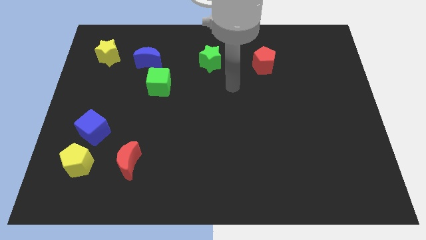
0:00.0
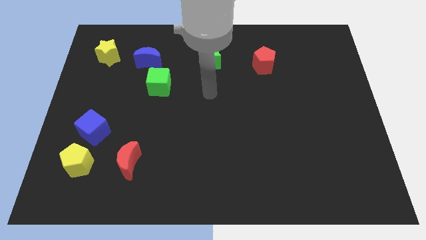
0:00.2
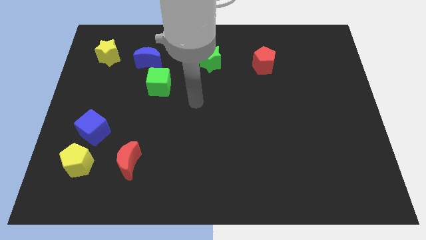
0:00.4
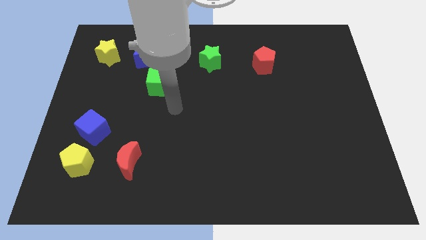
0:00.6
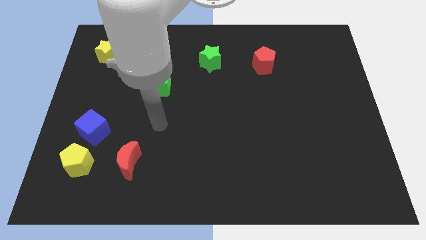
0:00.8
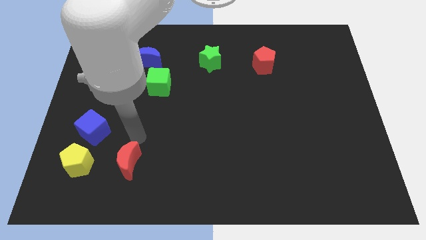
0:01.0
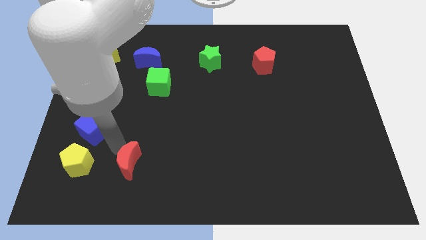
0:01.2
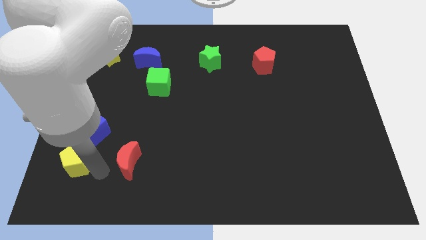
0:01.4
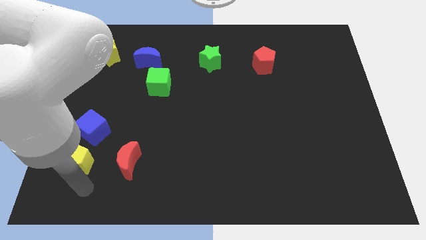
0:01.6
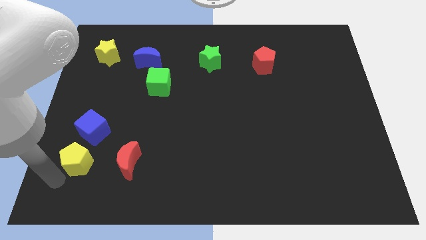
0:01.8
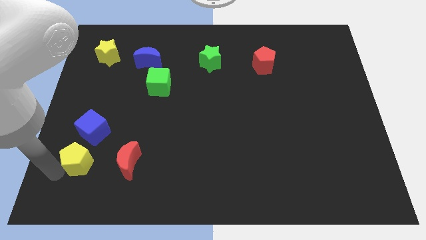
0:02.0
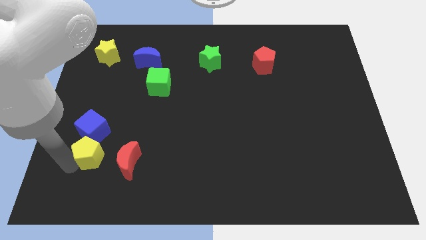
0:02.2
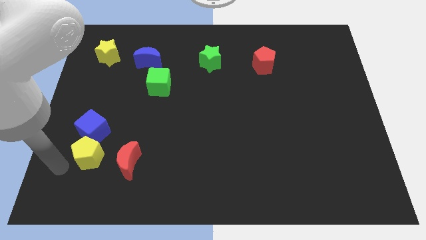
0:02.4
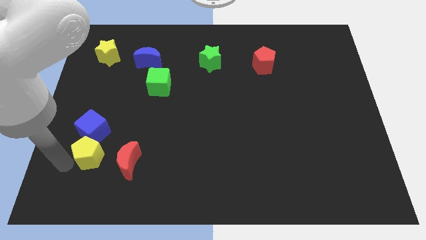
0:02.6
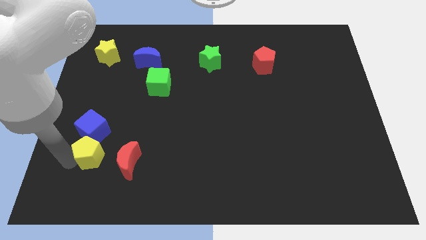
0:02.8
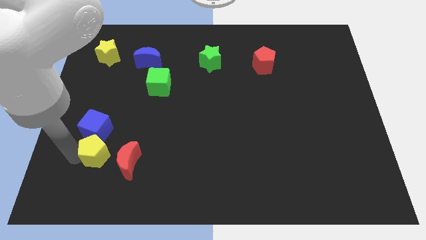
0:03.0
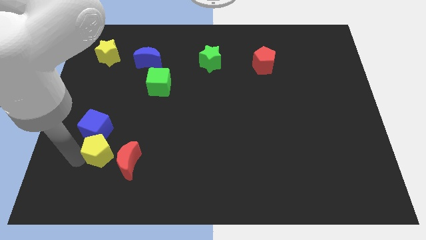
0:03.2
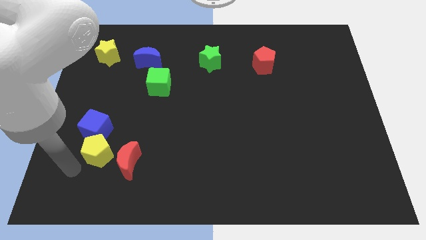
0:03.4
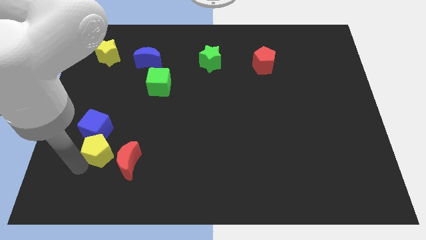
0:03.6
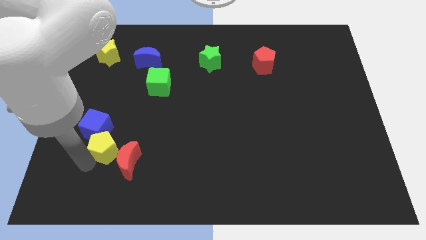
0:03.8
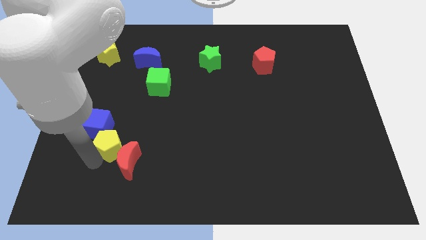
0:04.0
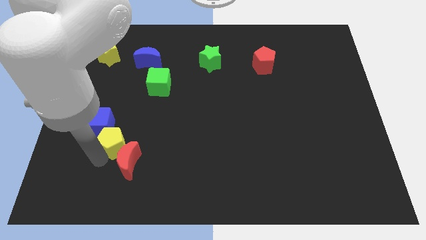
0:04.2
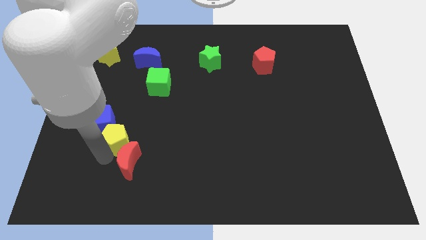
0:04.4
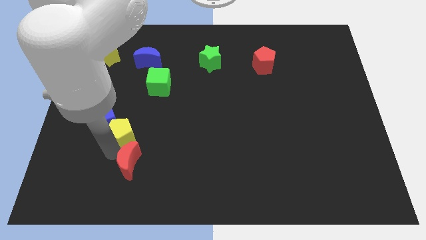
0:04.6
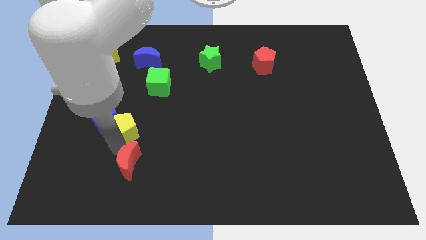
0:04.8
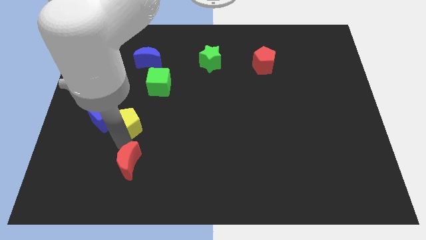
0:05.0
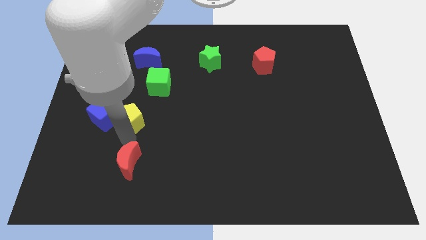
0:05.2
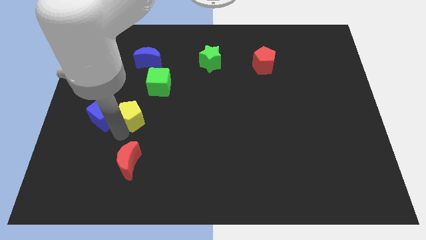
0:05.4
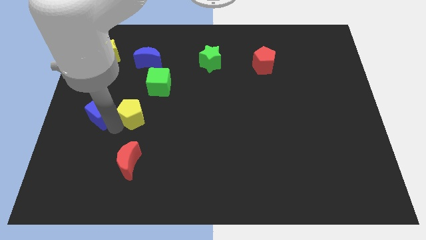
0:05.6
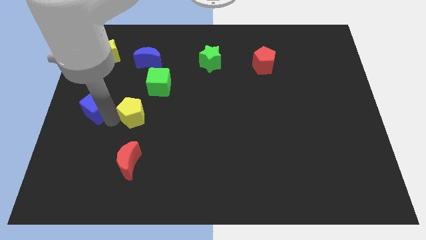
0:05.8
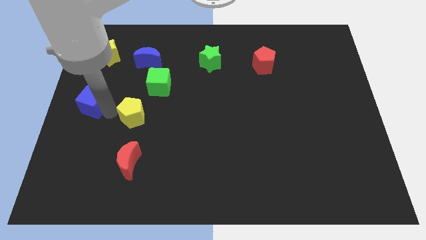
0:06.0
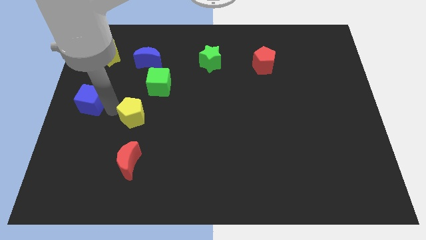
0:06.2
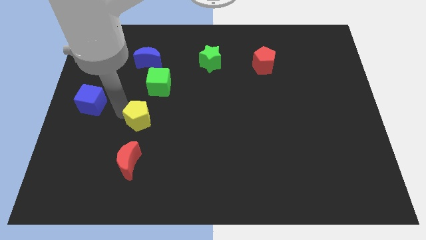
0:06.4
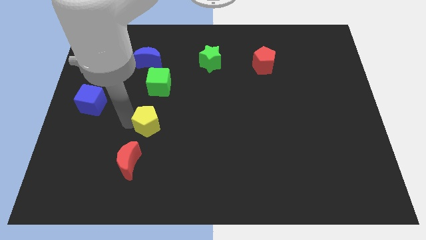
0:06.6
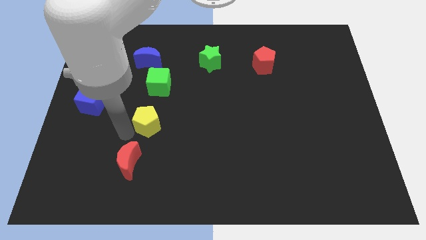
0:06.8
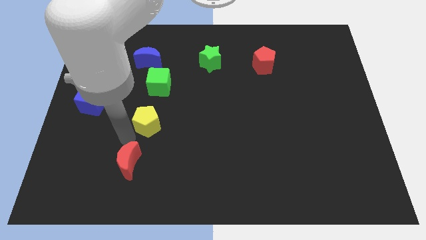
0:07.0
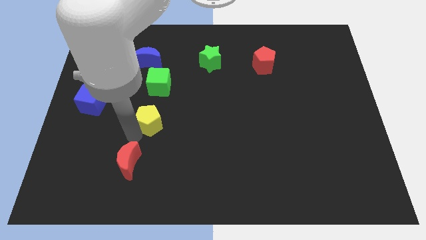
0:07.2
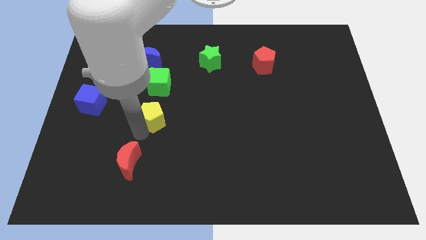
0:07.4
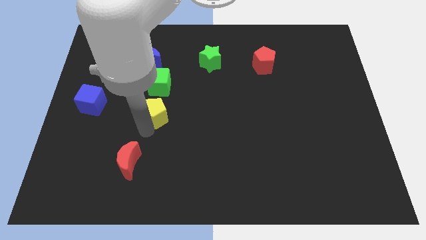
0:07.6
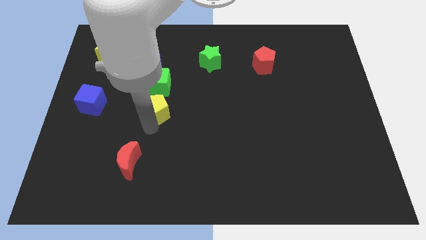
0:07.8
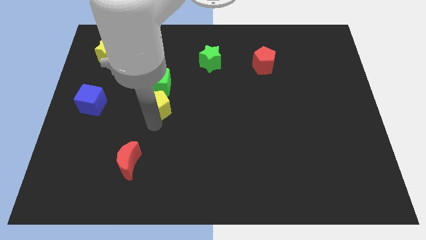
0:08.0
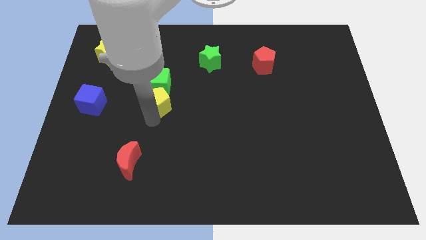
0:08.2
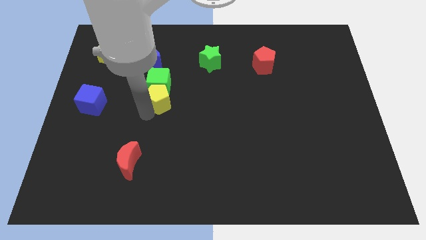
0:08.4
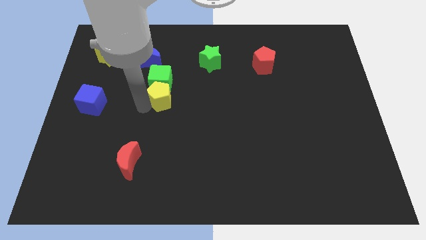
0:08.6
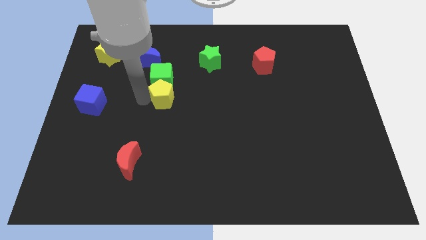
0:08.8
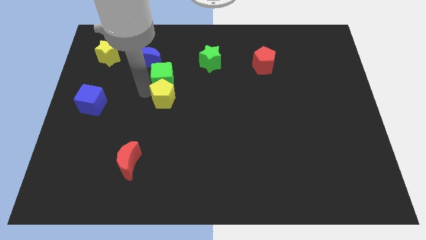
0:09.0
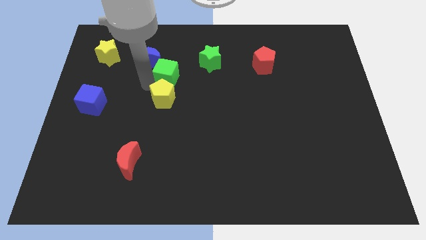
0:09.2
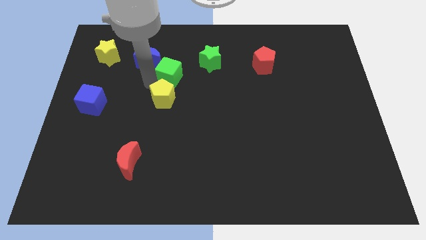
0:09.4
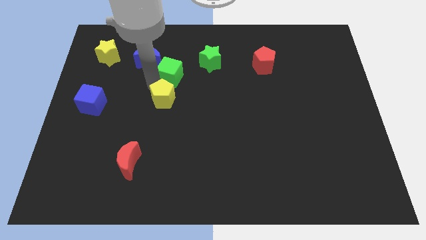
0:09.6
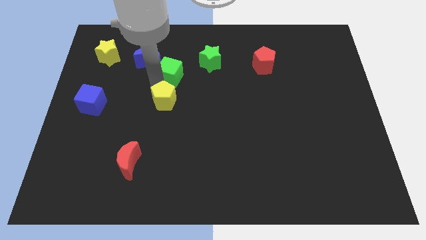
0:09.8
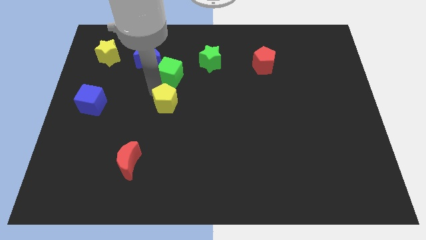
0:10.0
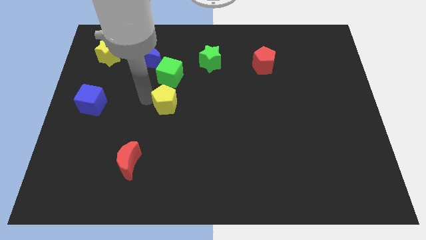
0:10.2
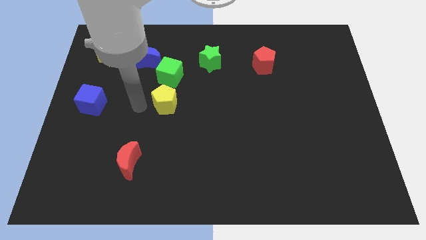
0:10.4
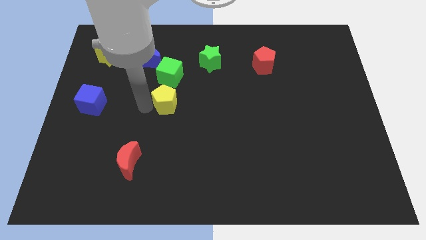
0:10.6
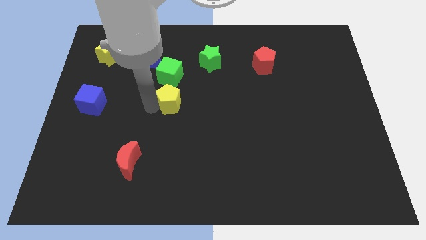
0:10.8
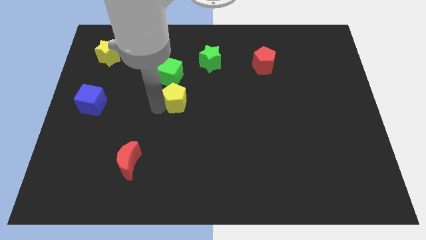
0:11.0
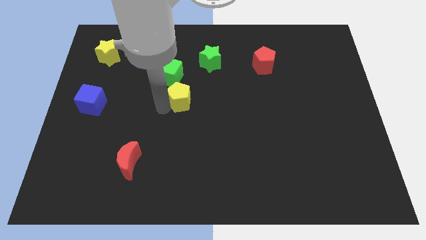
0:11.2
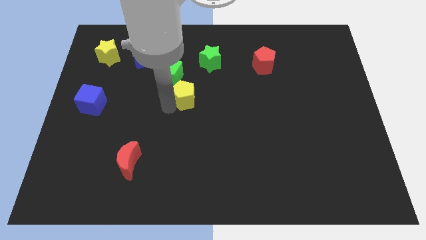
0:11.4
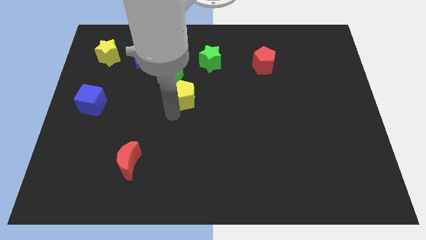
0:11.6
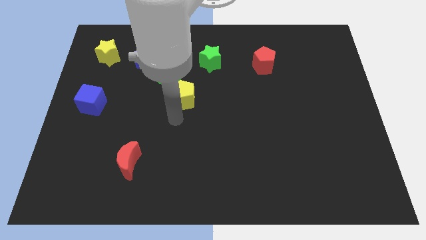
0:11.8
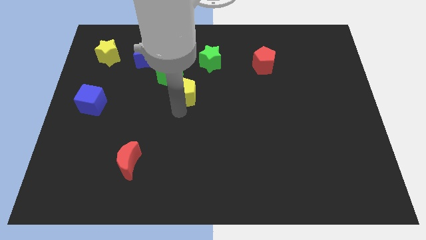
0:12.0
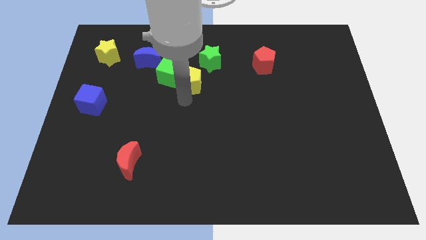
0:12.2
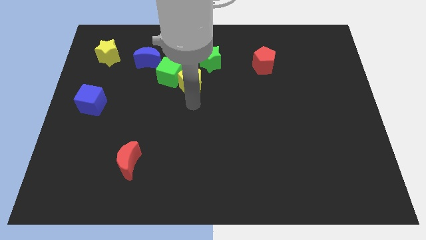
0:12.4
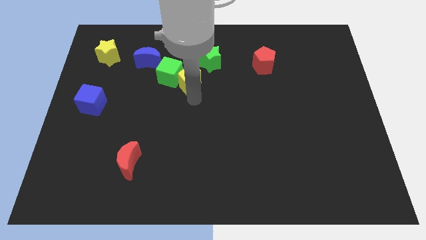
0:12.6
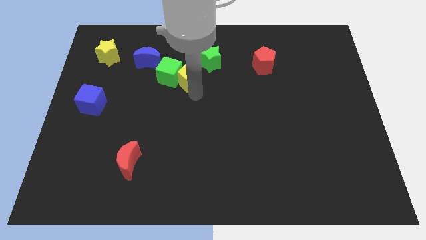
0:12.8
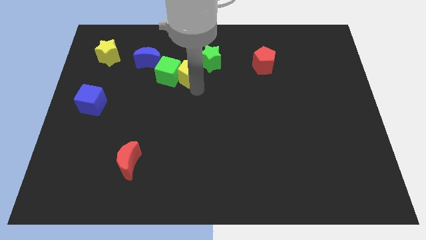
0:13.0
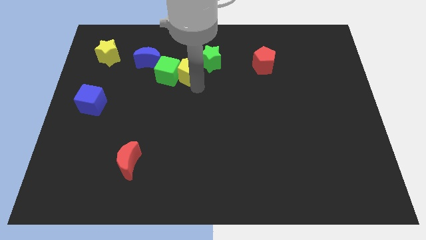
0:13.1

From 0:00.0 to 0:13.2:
push the yellow pentagon to the right side of the blue moon

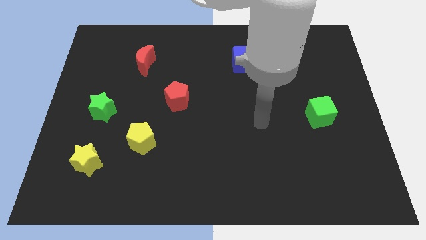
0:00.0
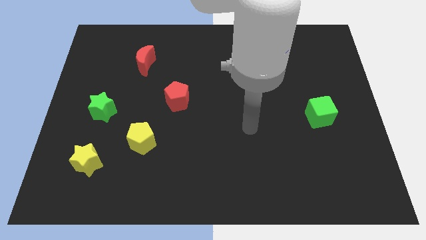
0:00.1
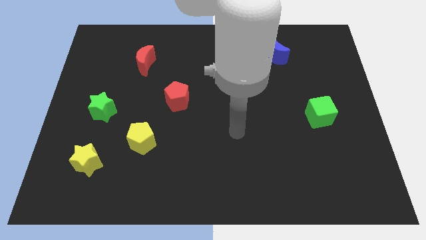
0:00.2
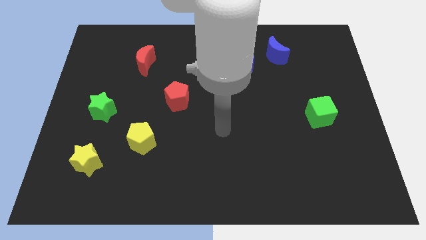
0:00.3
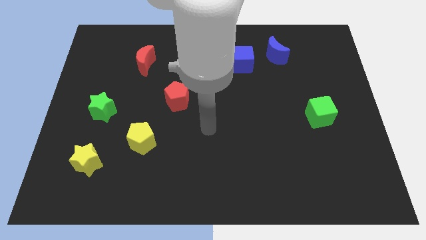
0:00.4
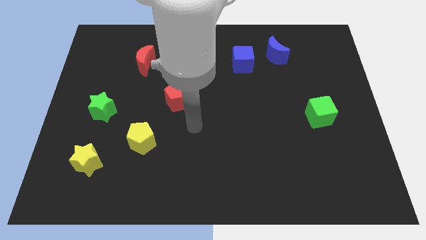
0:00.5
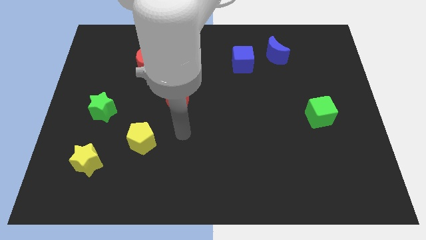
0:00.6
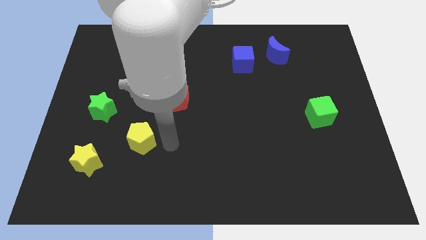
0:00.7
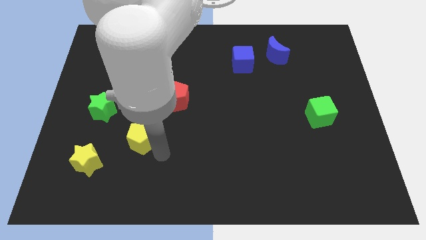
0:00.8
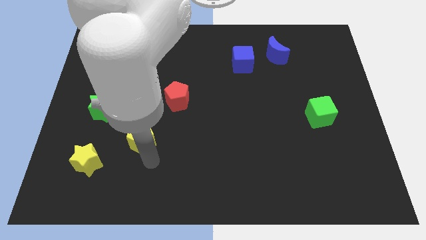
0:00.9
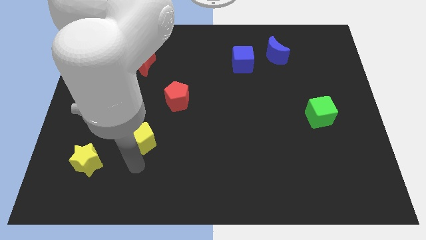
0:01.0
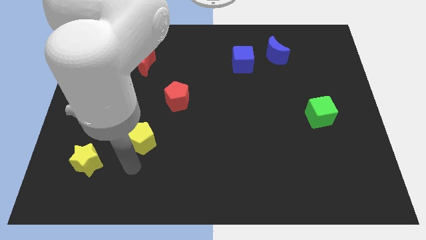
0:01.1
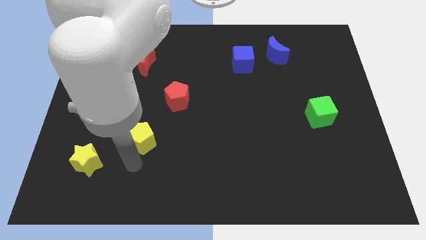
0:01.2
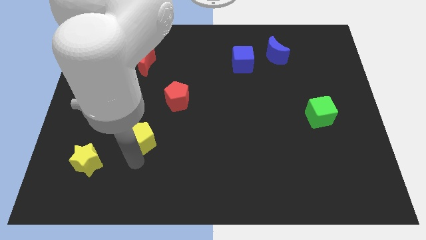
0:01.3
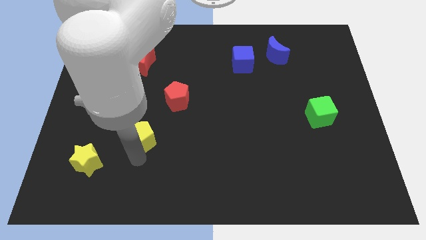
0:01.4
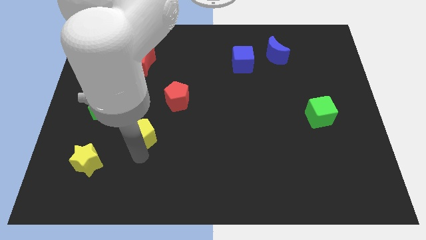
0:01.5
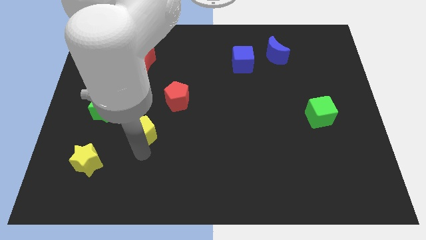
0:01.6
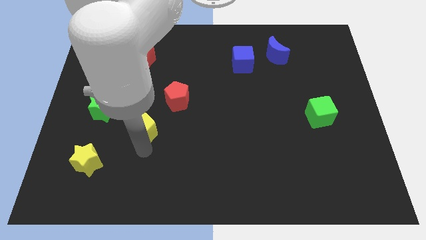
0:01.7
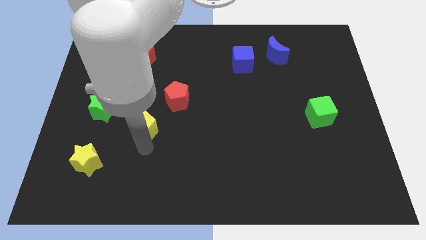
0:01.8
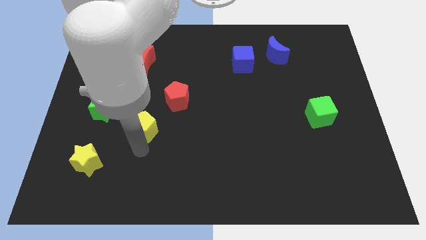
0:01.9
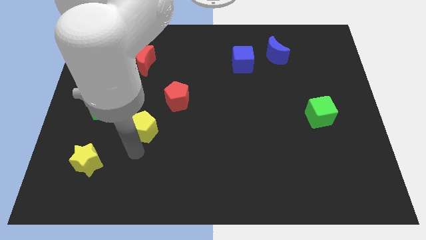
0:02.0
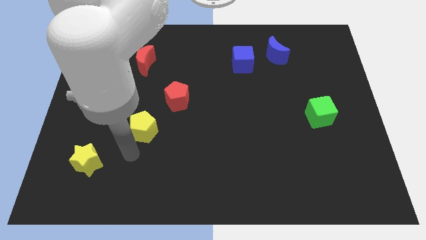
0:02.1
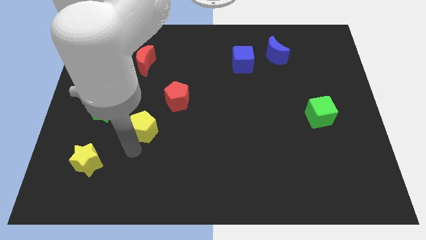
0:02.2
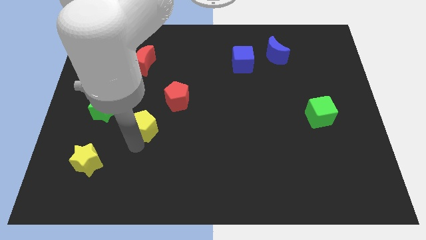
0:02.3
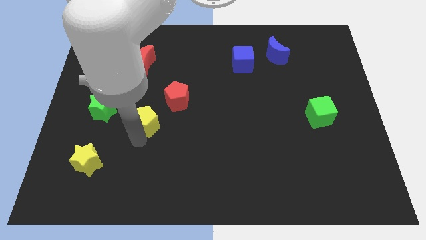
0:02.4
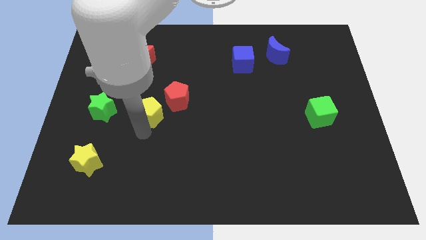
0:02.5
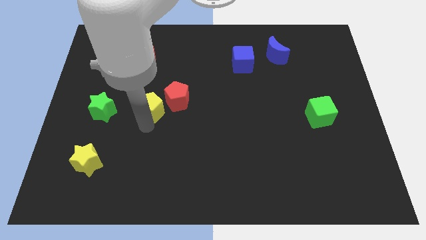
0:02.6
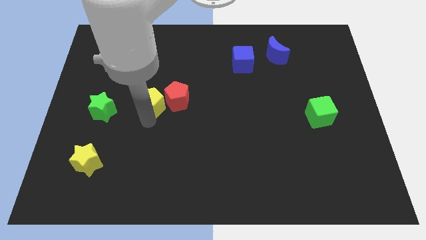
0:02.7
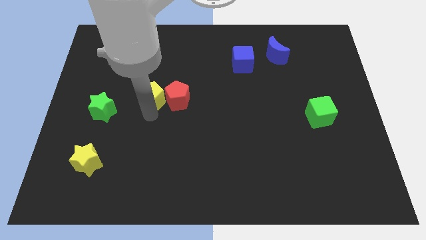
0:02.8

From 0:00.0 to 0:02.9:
move the yellow pentagon to the top left of the red pentagon
